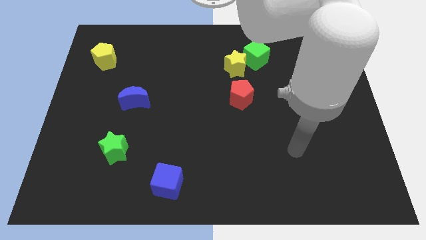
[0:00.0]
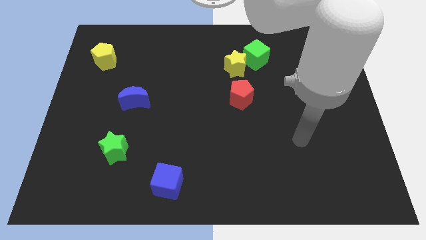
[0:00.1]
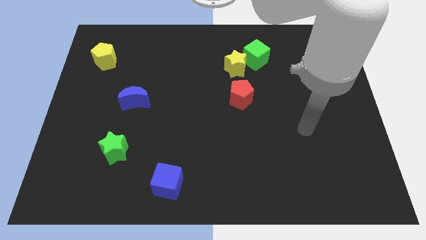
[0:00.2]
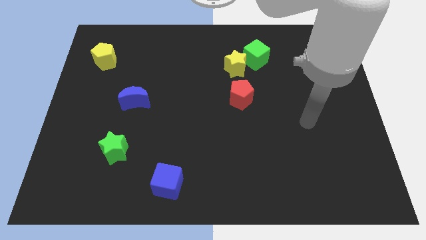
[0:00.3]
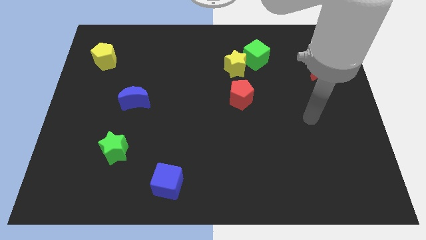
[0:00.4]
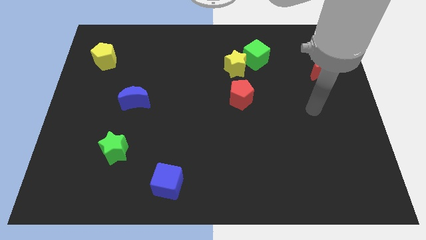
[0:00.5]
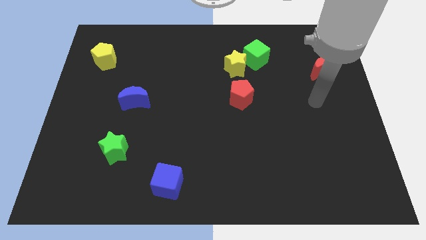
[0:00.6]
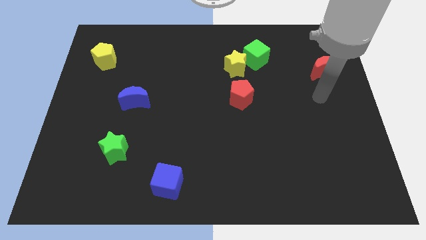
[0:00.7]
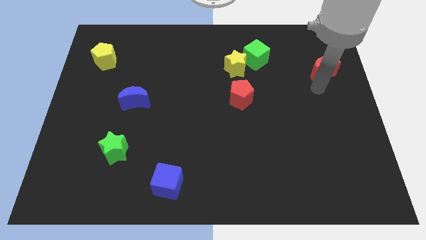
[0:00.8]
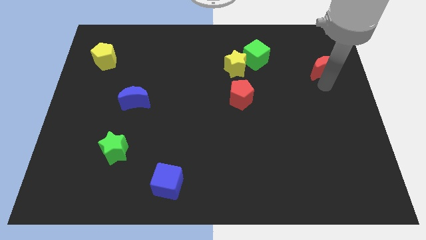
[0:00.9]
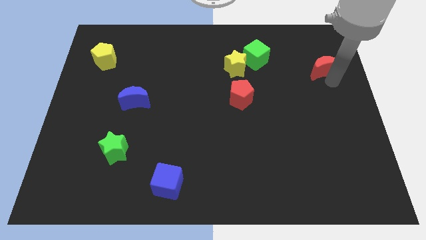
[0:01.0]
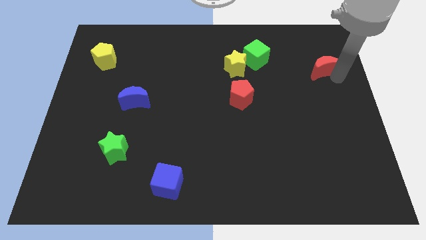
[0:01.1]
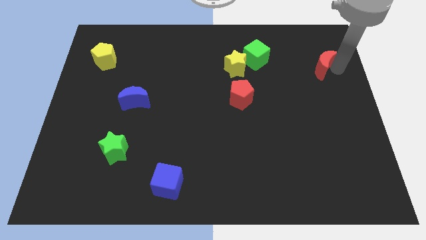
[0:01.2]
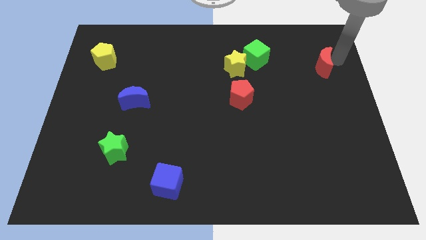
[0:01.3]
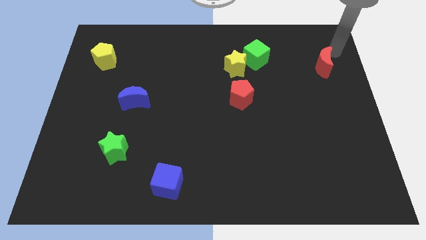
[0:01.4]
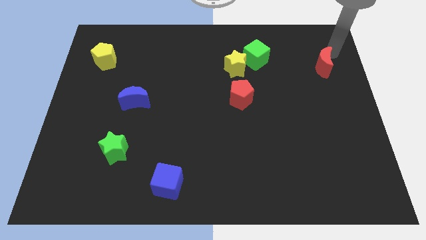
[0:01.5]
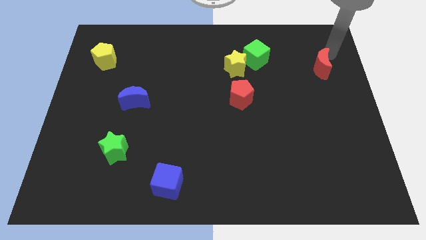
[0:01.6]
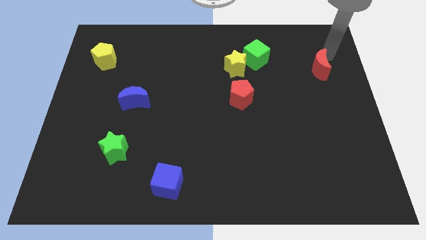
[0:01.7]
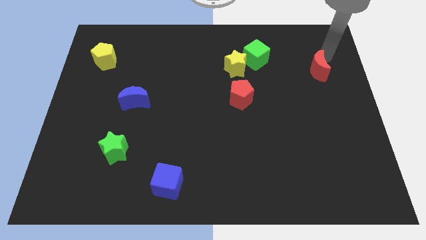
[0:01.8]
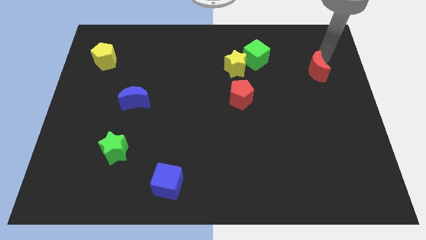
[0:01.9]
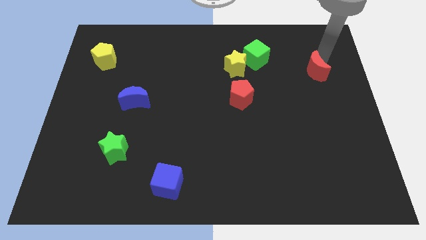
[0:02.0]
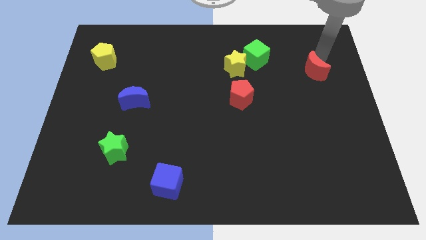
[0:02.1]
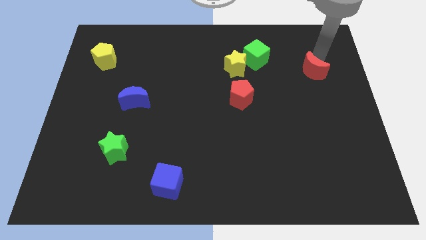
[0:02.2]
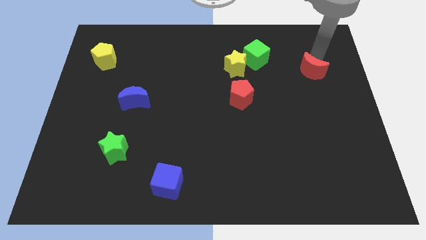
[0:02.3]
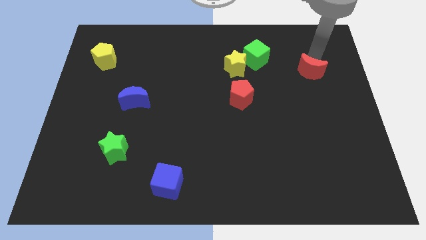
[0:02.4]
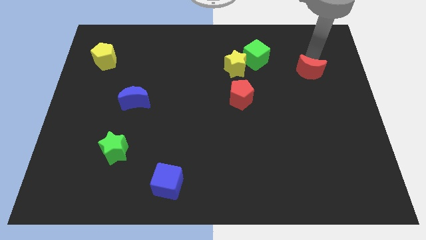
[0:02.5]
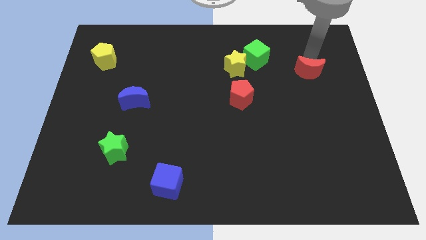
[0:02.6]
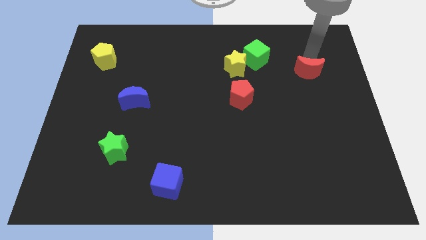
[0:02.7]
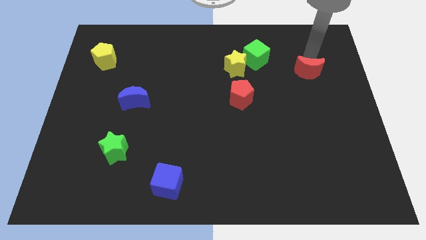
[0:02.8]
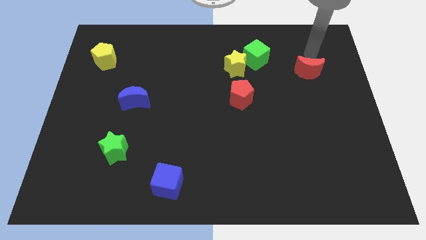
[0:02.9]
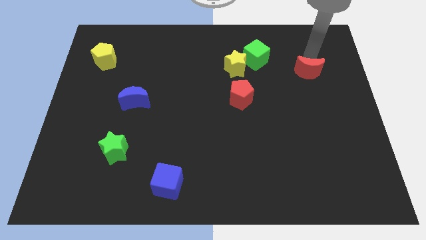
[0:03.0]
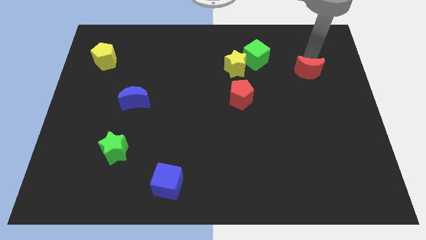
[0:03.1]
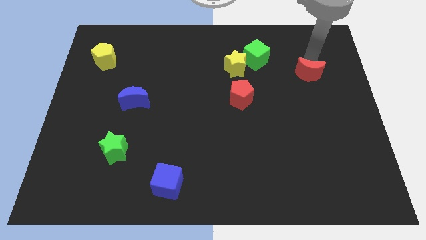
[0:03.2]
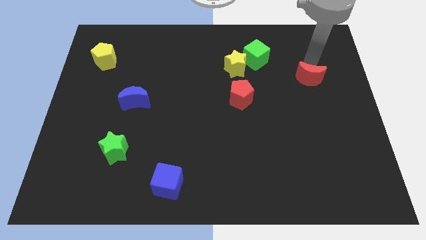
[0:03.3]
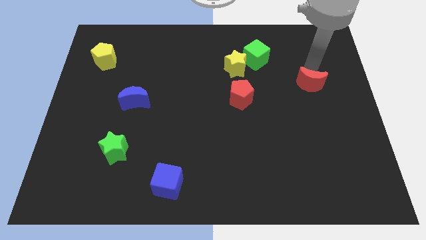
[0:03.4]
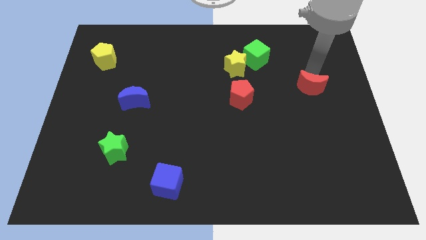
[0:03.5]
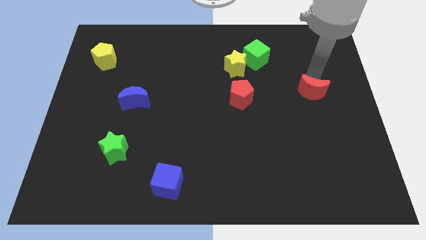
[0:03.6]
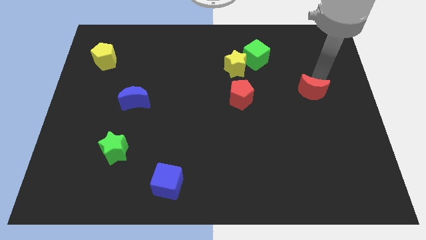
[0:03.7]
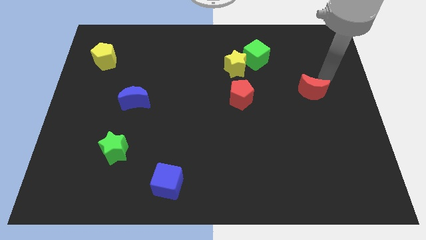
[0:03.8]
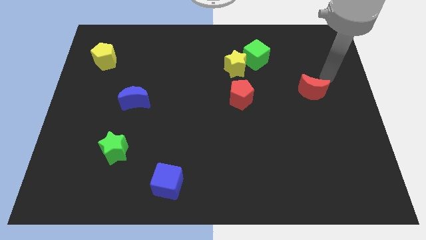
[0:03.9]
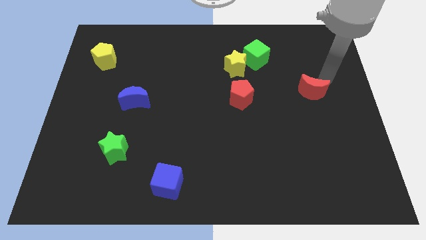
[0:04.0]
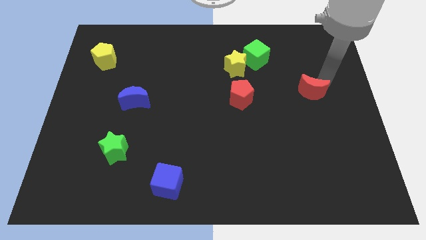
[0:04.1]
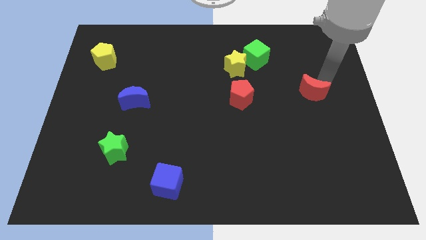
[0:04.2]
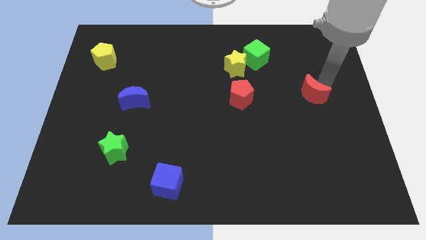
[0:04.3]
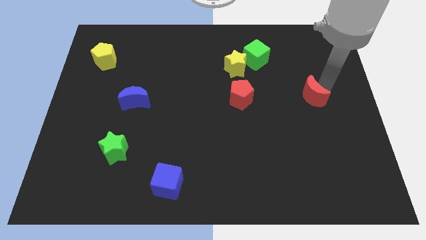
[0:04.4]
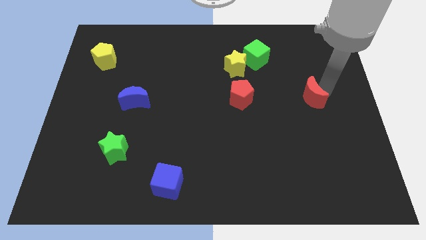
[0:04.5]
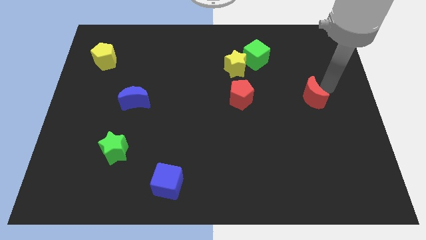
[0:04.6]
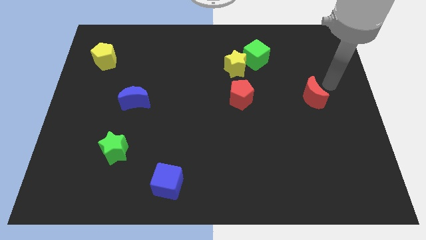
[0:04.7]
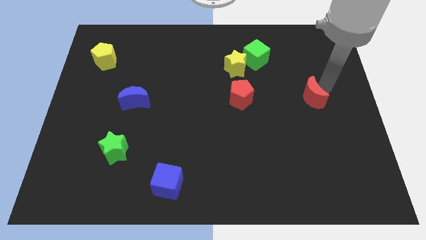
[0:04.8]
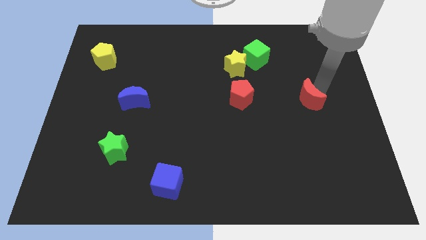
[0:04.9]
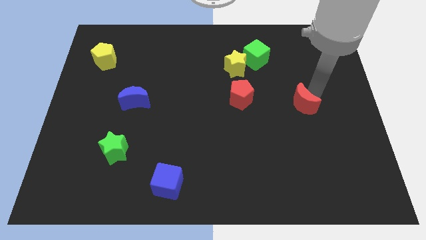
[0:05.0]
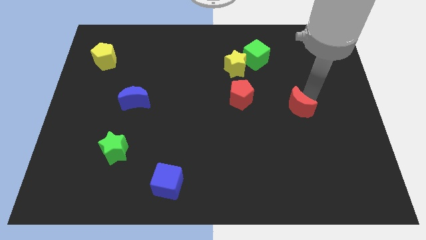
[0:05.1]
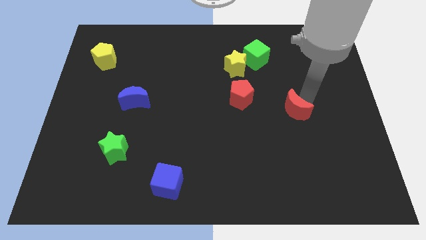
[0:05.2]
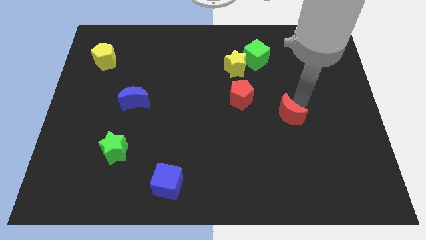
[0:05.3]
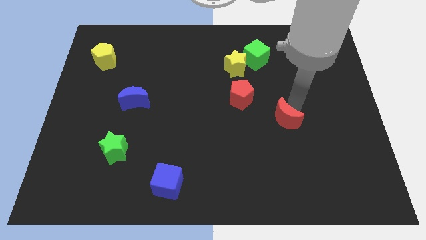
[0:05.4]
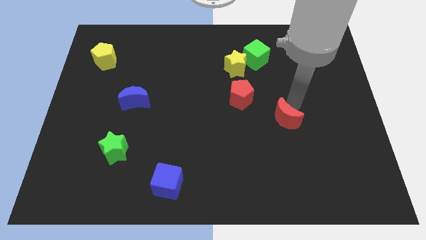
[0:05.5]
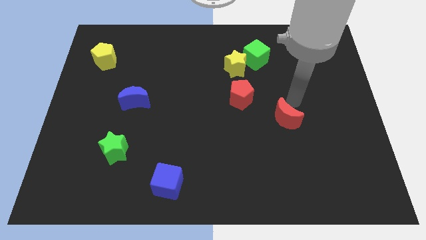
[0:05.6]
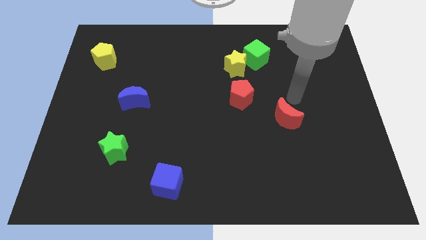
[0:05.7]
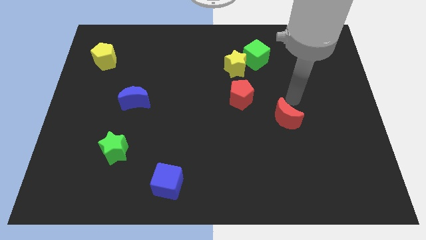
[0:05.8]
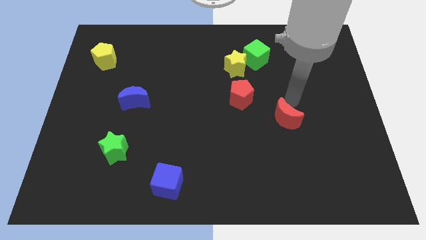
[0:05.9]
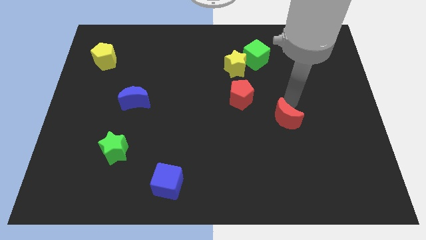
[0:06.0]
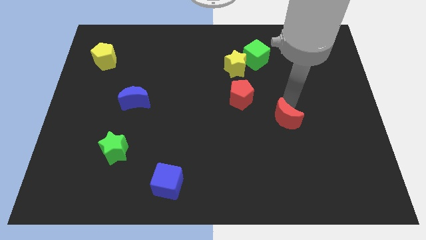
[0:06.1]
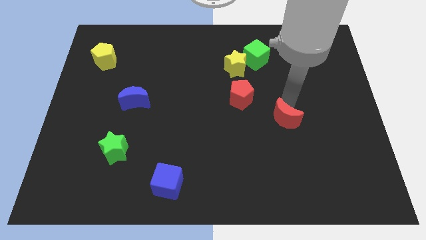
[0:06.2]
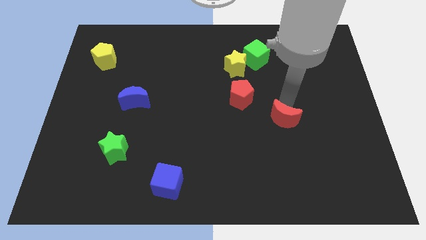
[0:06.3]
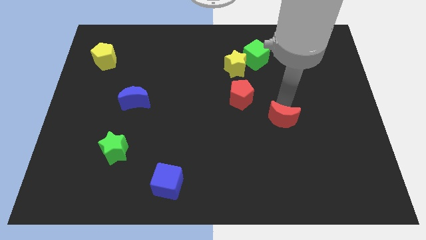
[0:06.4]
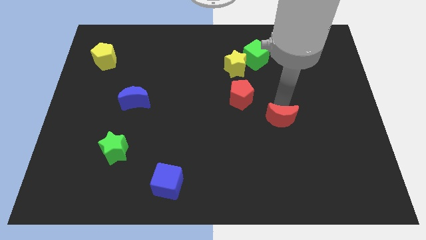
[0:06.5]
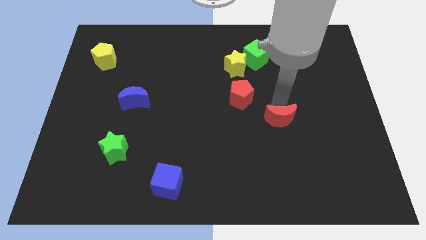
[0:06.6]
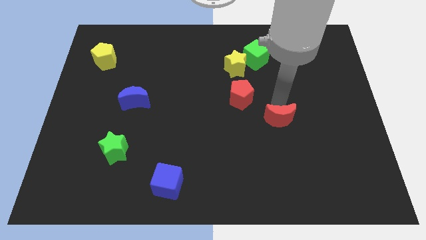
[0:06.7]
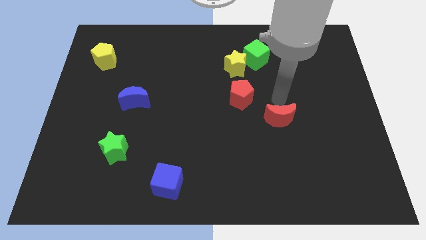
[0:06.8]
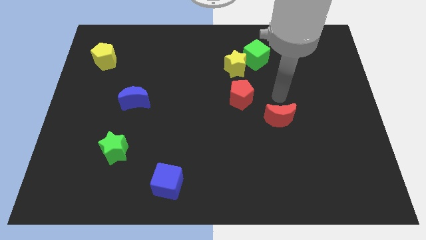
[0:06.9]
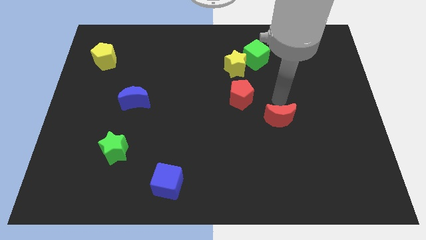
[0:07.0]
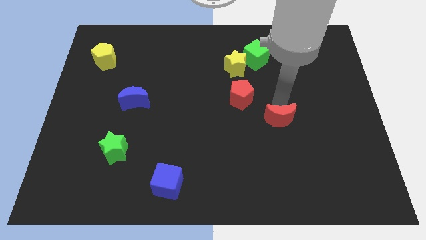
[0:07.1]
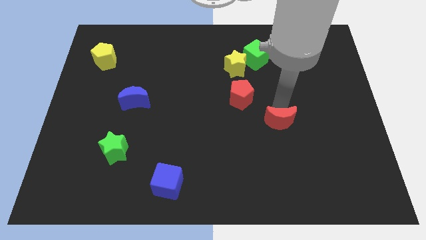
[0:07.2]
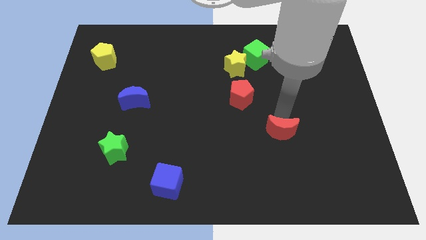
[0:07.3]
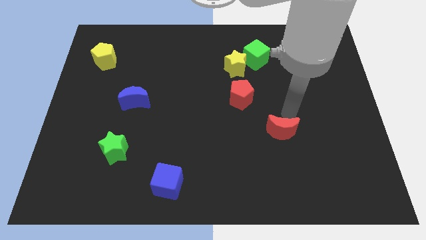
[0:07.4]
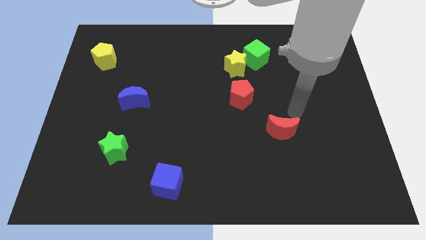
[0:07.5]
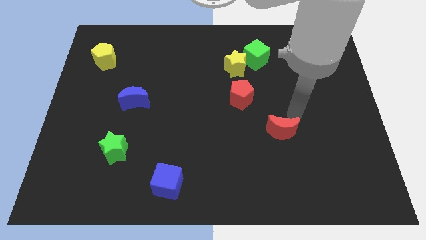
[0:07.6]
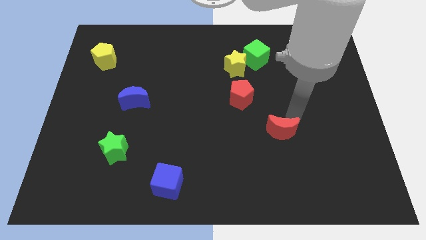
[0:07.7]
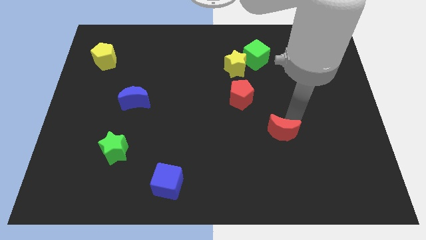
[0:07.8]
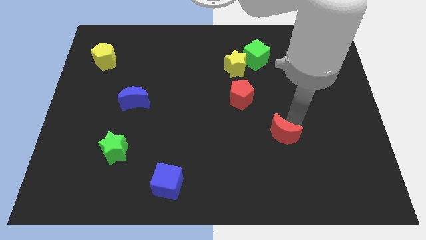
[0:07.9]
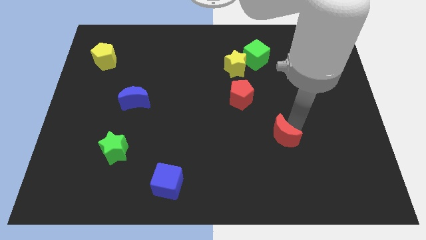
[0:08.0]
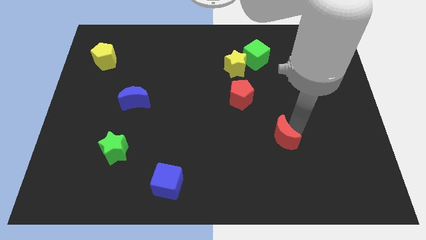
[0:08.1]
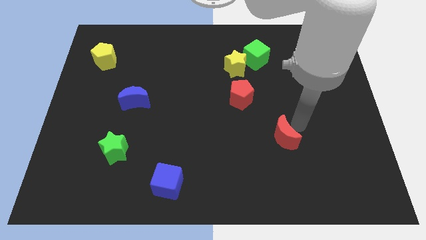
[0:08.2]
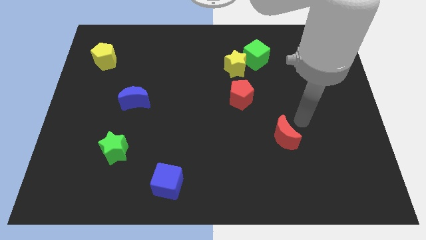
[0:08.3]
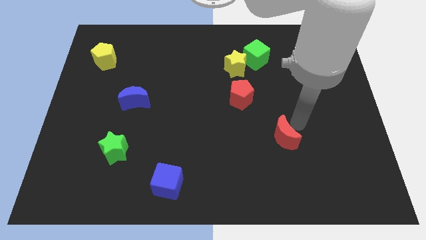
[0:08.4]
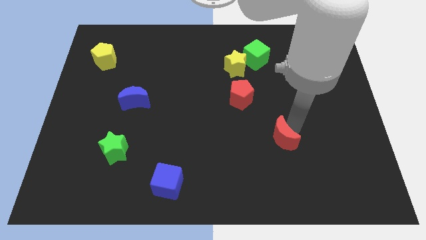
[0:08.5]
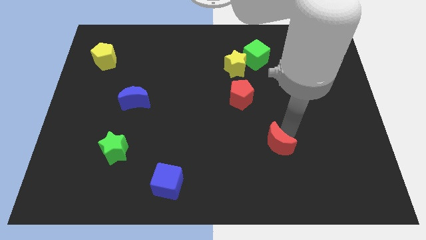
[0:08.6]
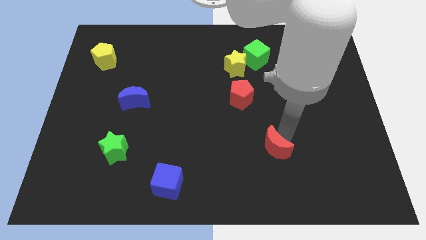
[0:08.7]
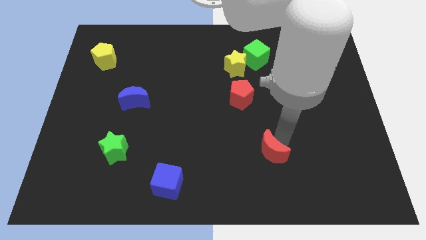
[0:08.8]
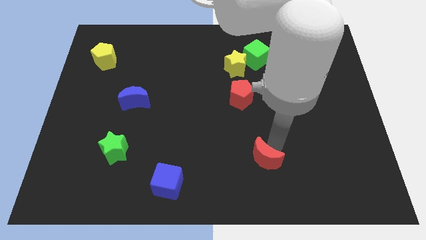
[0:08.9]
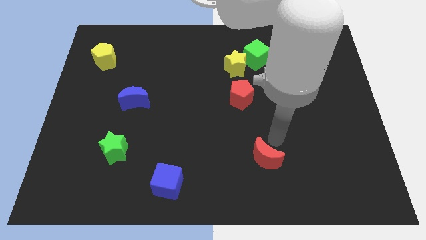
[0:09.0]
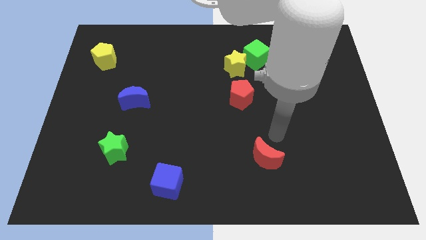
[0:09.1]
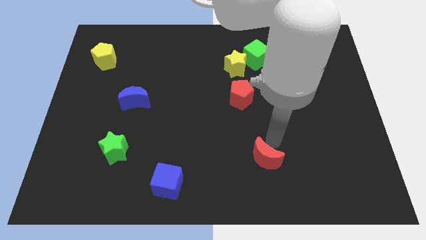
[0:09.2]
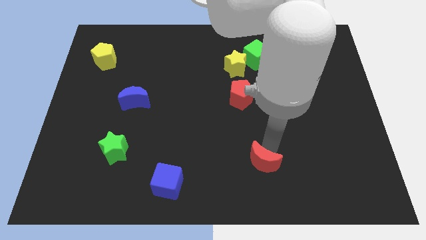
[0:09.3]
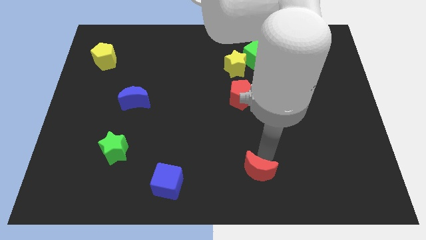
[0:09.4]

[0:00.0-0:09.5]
push the red moon to the bottom side
